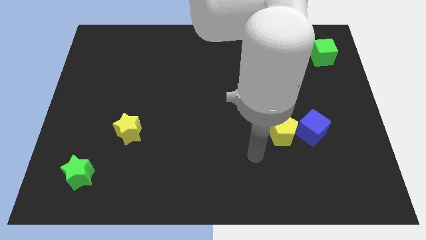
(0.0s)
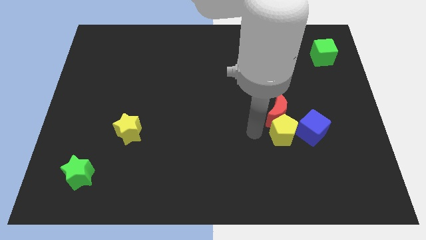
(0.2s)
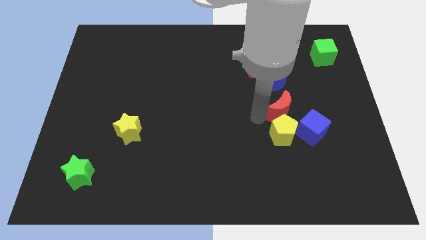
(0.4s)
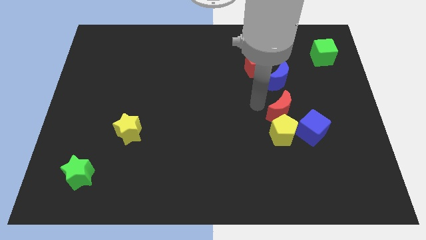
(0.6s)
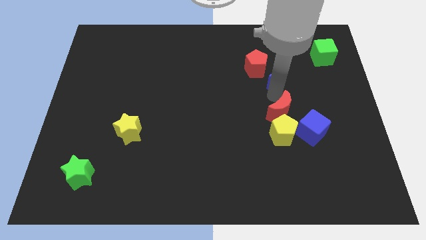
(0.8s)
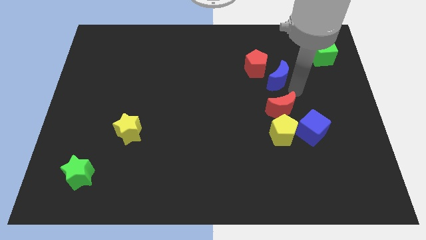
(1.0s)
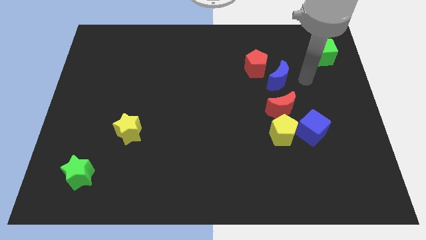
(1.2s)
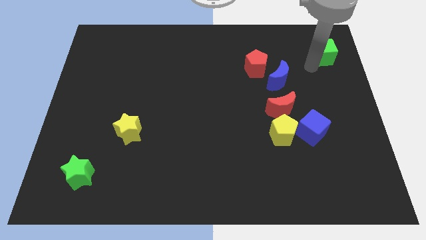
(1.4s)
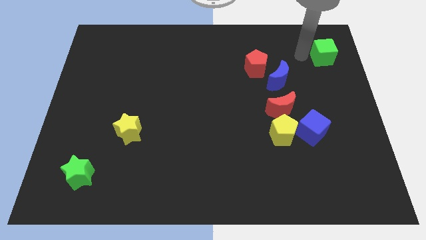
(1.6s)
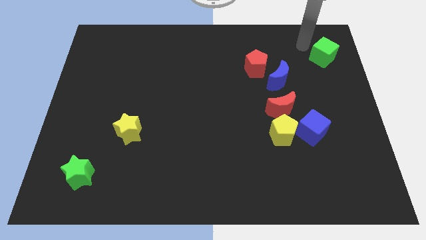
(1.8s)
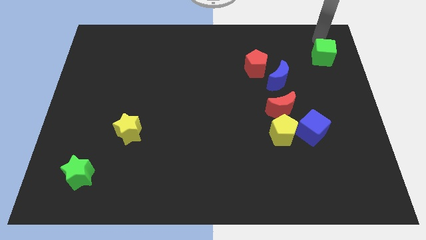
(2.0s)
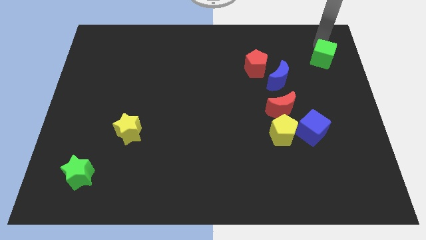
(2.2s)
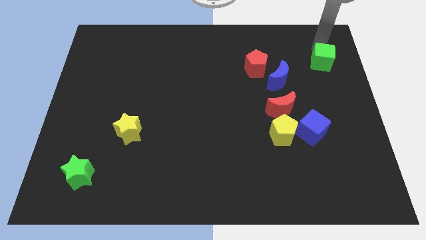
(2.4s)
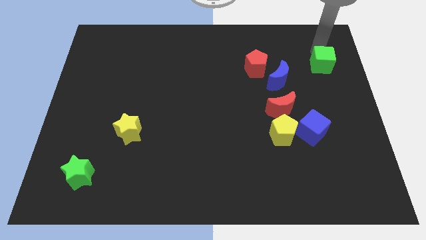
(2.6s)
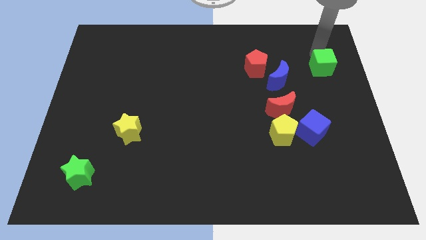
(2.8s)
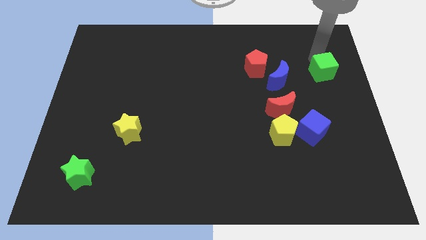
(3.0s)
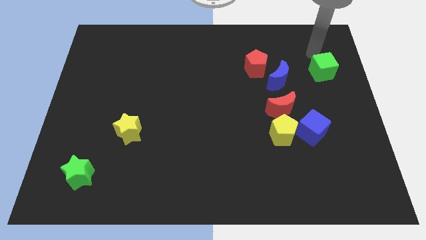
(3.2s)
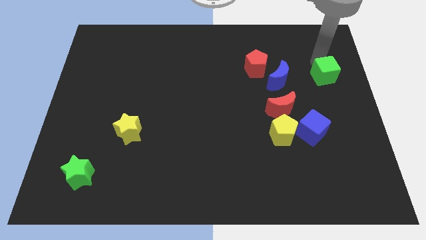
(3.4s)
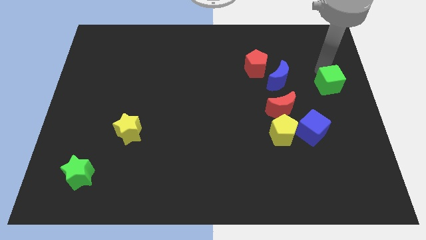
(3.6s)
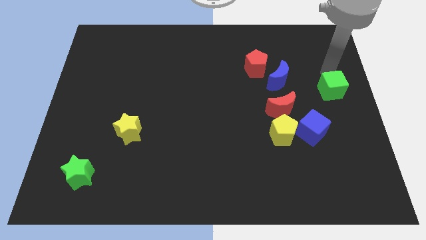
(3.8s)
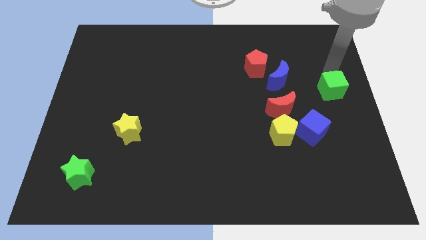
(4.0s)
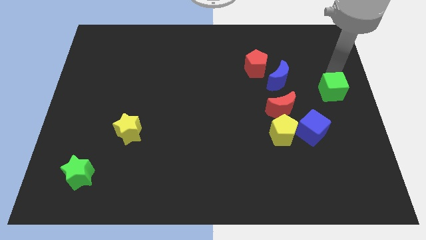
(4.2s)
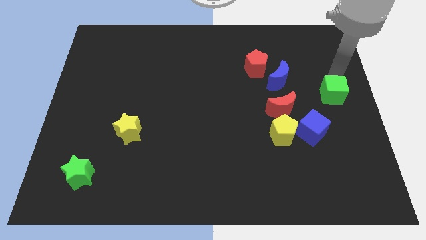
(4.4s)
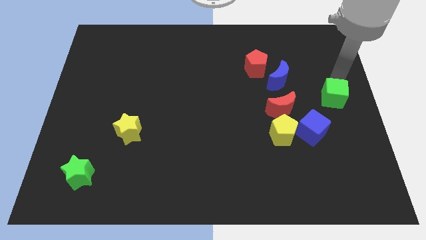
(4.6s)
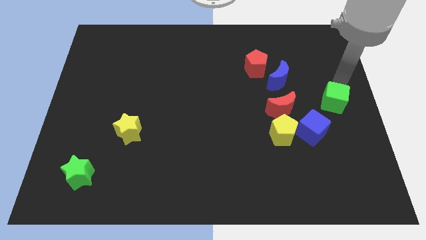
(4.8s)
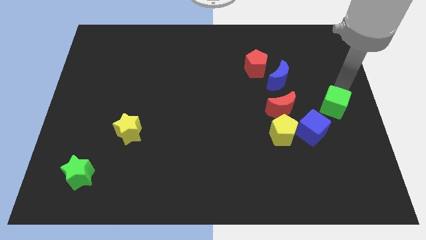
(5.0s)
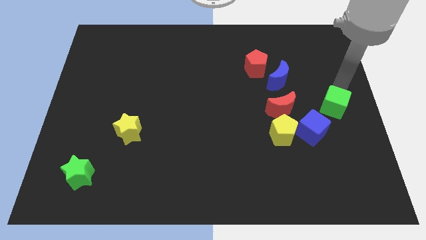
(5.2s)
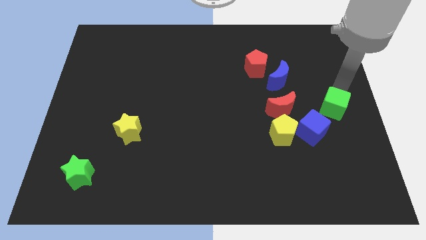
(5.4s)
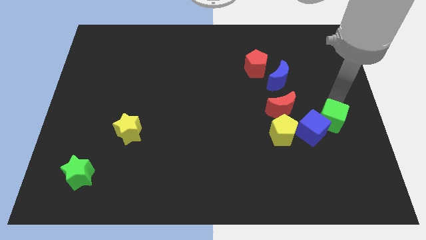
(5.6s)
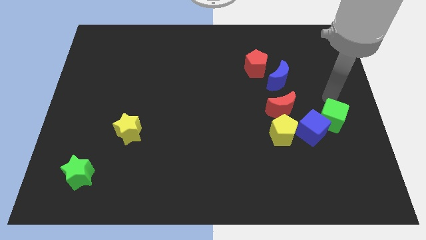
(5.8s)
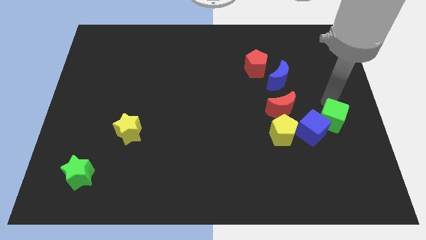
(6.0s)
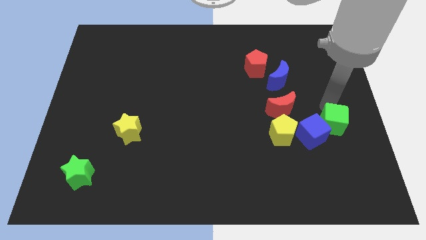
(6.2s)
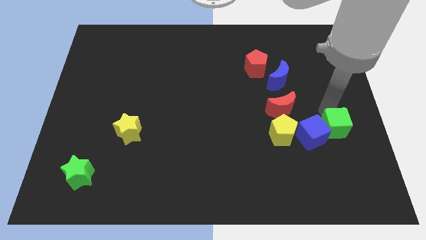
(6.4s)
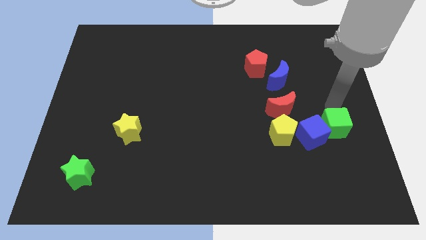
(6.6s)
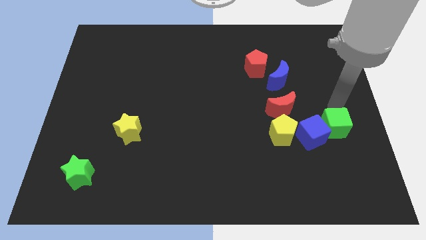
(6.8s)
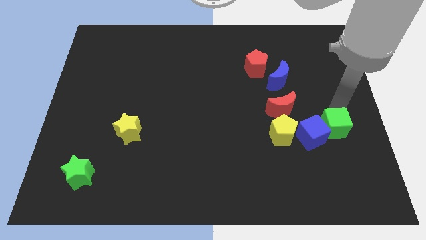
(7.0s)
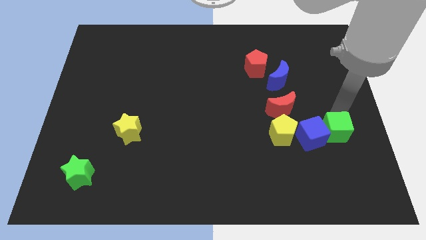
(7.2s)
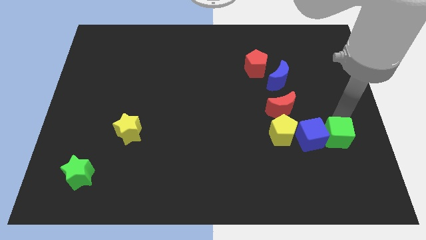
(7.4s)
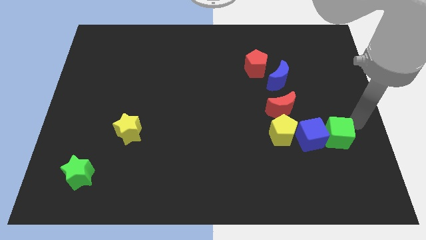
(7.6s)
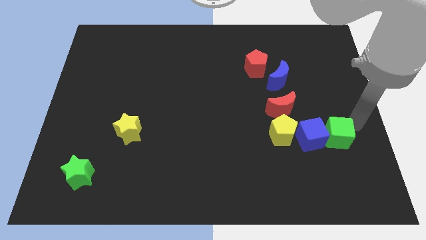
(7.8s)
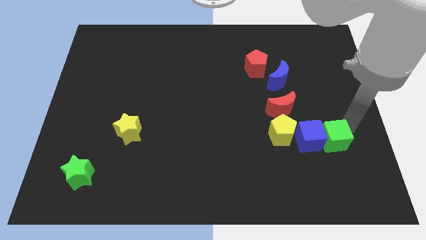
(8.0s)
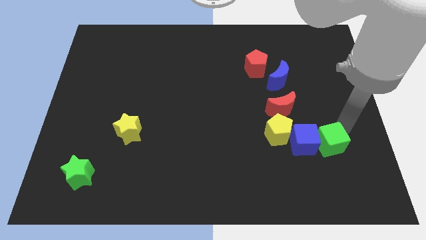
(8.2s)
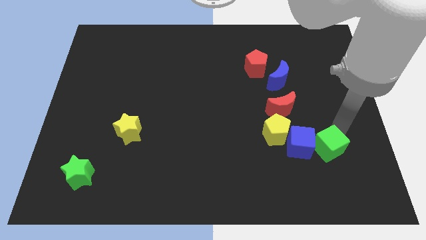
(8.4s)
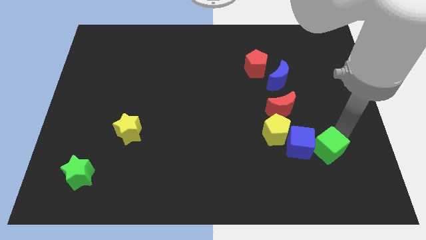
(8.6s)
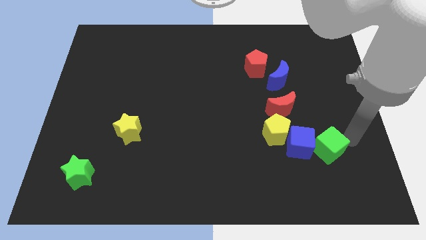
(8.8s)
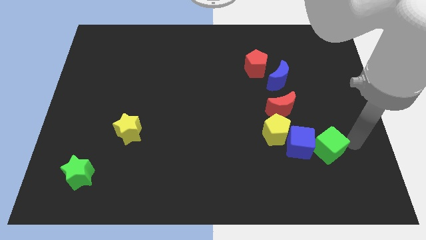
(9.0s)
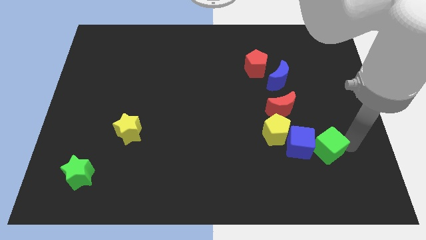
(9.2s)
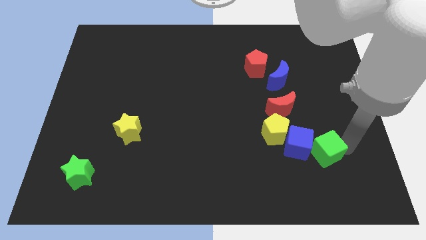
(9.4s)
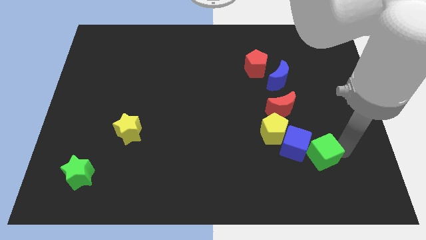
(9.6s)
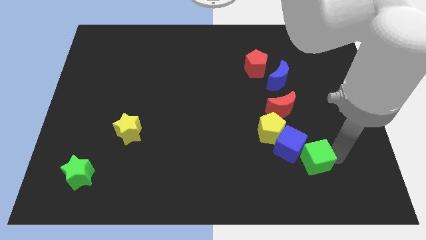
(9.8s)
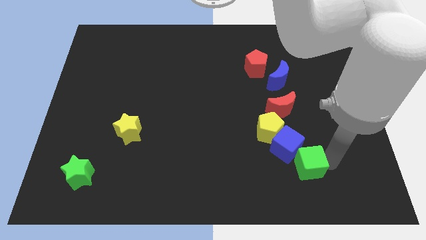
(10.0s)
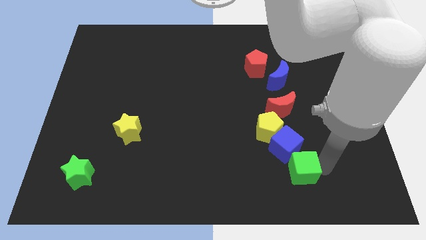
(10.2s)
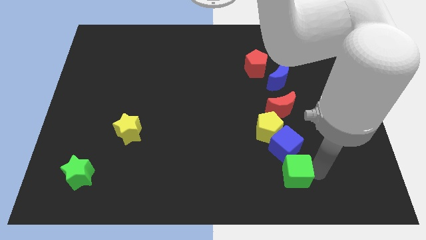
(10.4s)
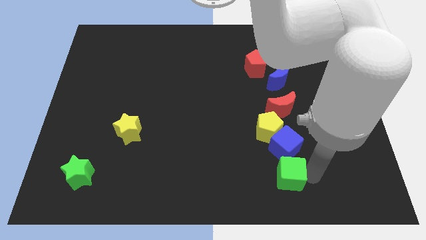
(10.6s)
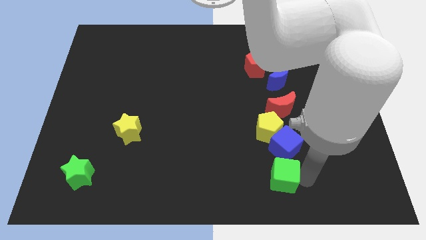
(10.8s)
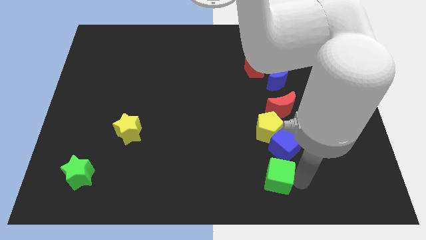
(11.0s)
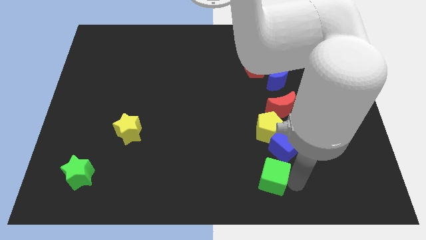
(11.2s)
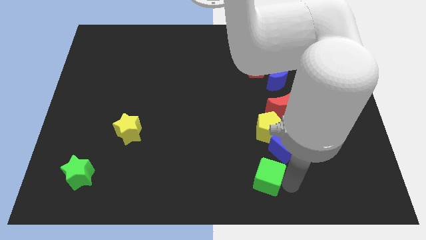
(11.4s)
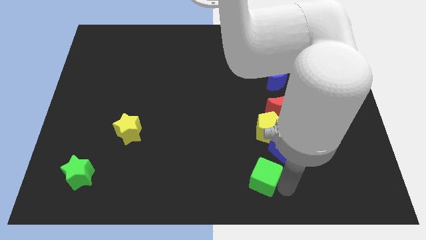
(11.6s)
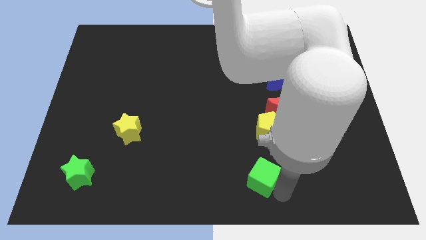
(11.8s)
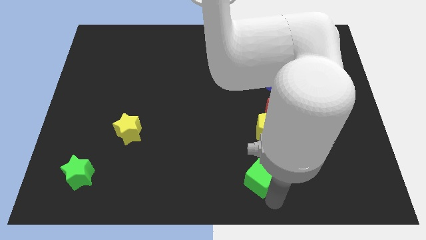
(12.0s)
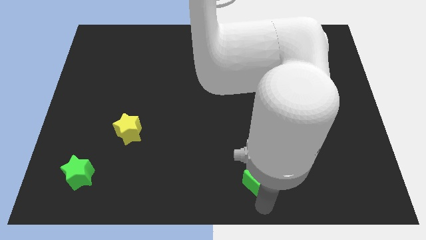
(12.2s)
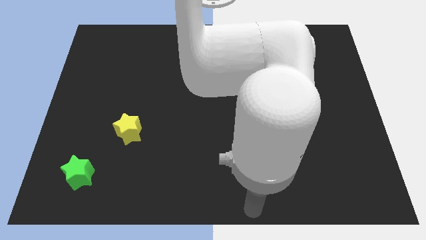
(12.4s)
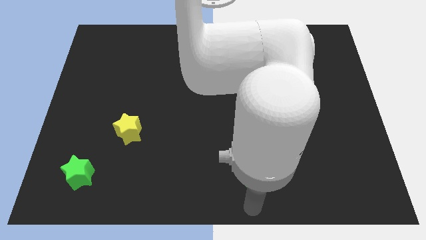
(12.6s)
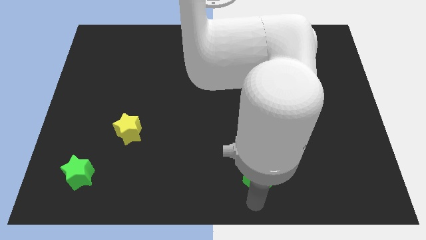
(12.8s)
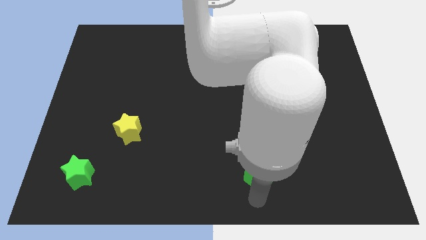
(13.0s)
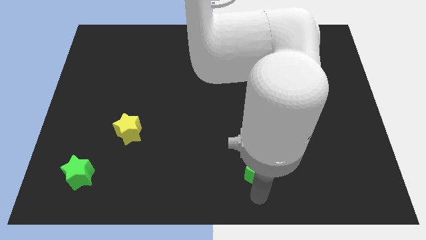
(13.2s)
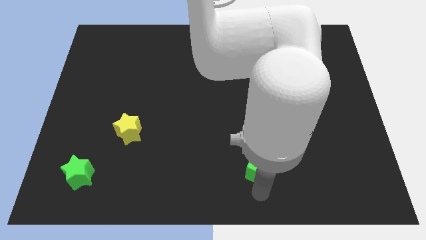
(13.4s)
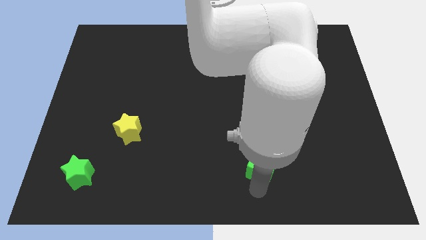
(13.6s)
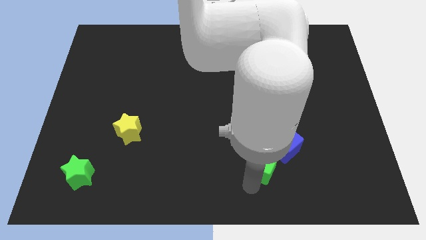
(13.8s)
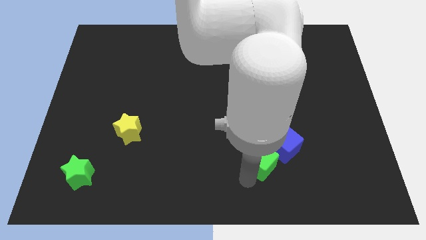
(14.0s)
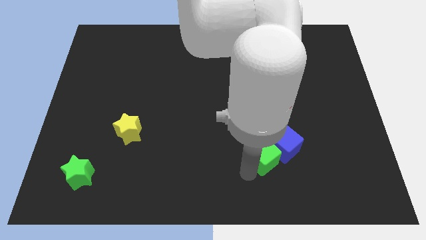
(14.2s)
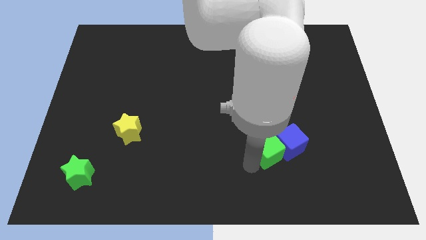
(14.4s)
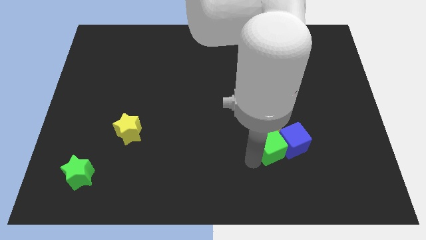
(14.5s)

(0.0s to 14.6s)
put the green cube to the bottom left side of the blue cube

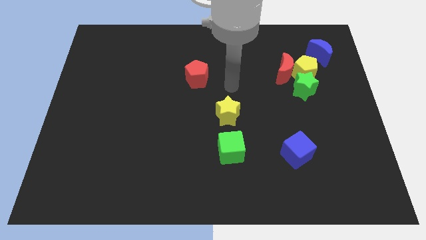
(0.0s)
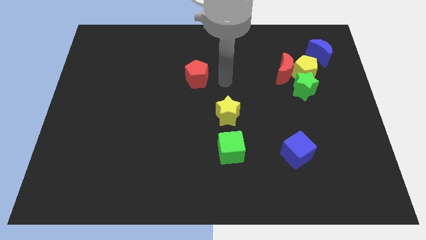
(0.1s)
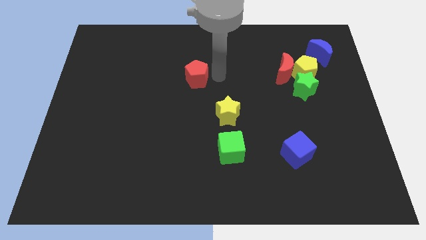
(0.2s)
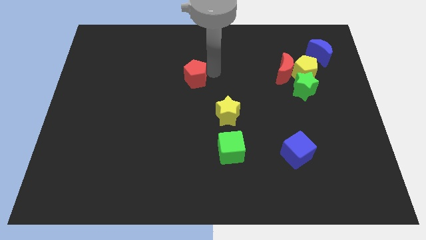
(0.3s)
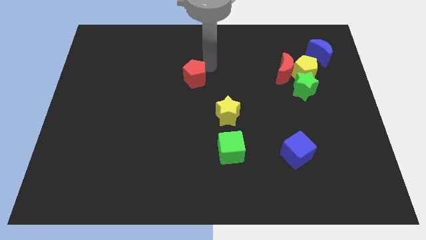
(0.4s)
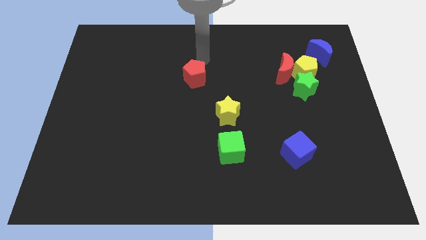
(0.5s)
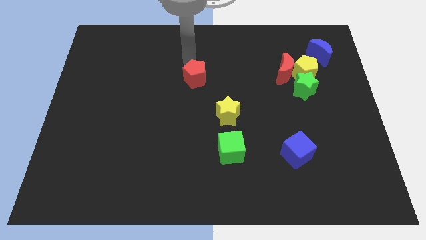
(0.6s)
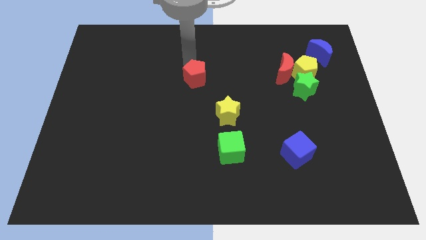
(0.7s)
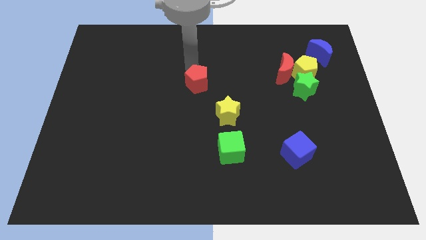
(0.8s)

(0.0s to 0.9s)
slide the red pentagon to the top left side of the yellow star
